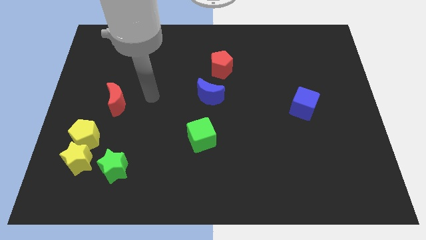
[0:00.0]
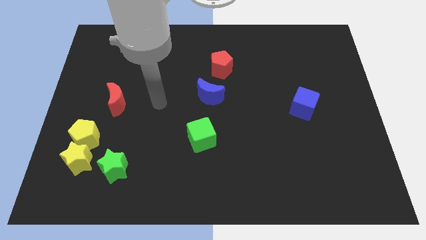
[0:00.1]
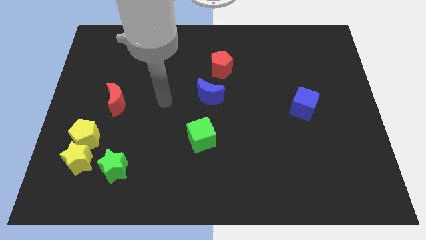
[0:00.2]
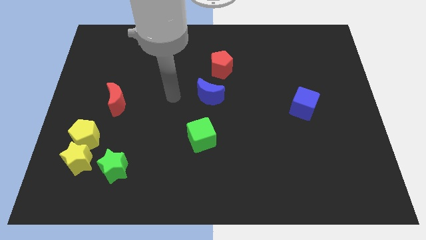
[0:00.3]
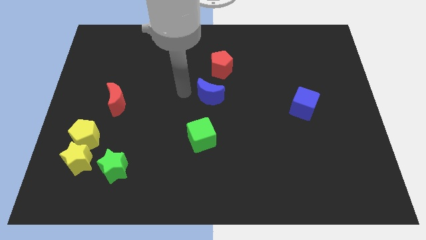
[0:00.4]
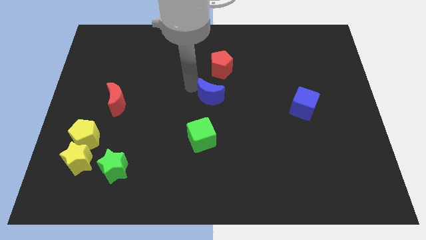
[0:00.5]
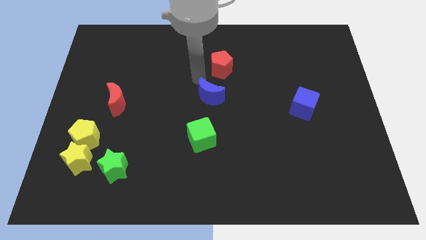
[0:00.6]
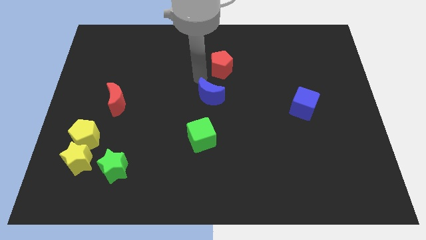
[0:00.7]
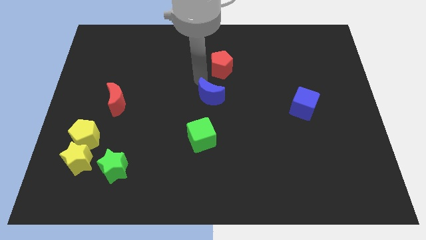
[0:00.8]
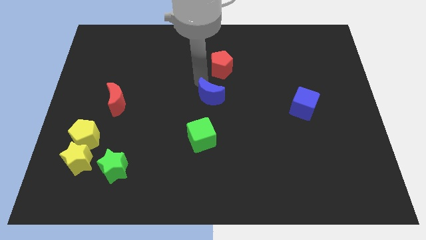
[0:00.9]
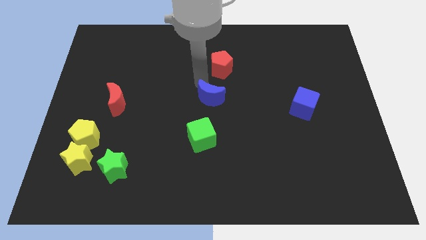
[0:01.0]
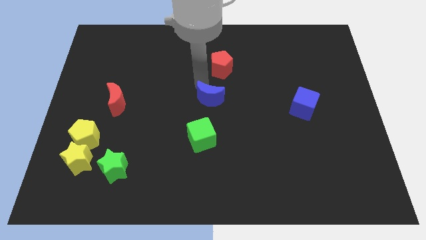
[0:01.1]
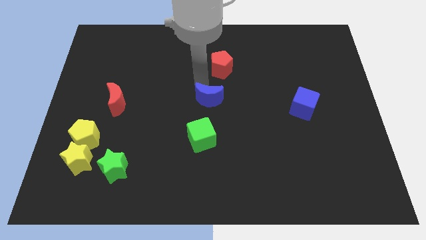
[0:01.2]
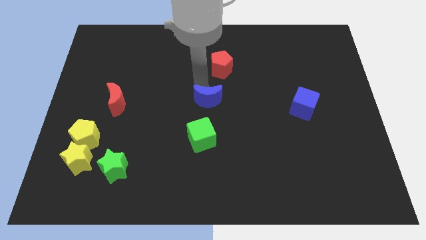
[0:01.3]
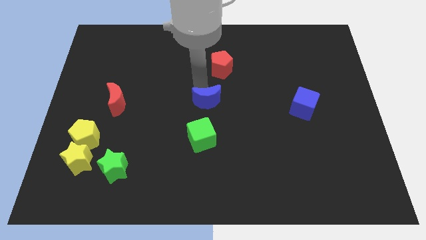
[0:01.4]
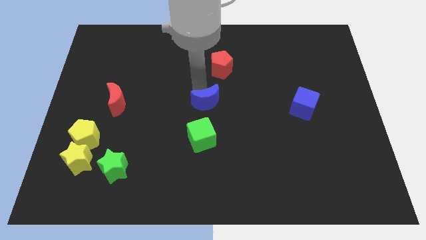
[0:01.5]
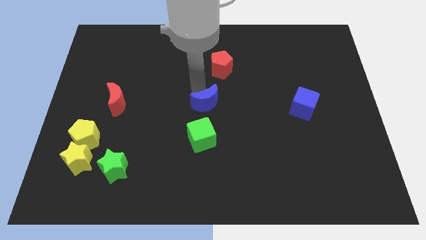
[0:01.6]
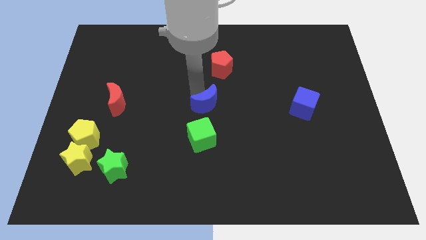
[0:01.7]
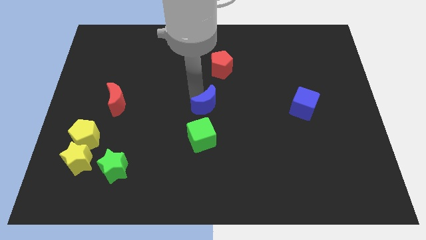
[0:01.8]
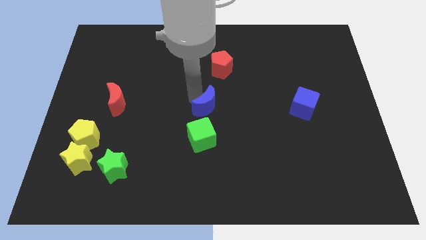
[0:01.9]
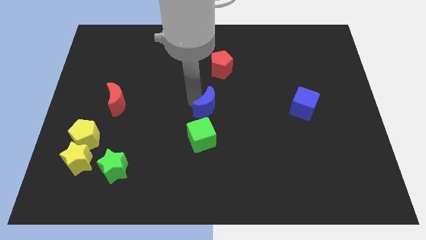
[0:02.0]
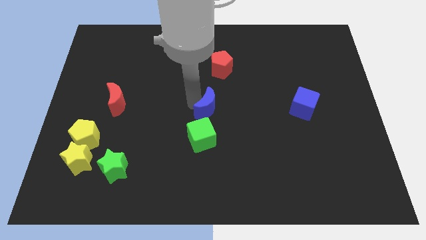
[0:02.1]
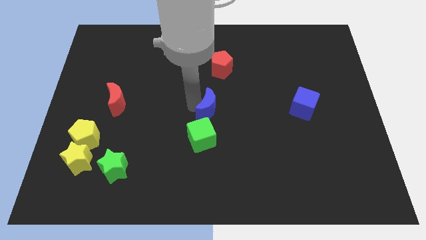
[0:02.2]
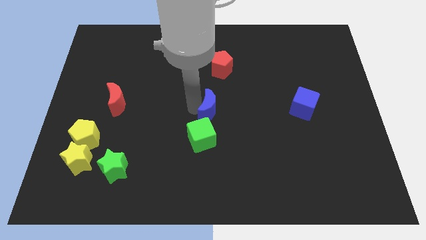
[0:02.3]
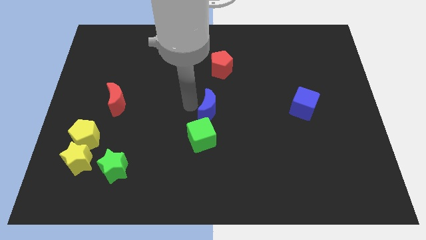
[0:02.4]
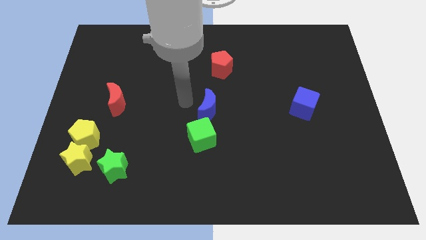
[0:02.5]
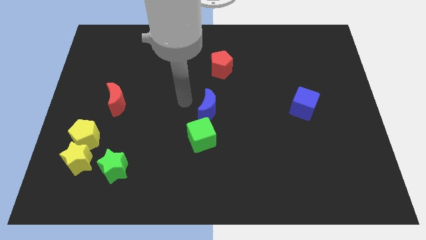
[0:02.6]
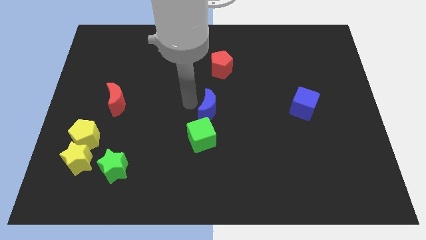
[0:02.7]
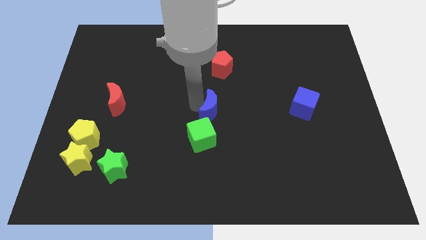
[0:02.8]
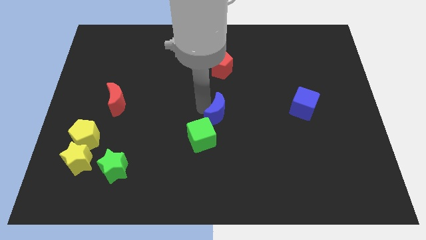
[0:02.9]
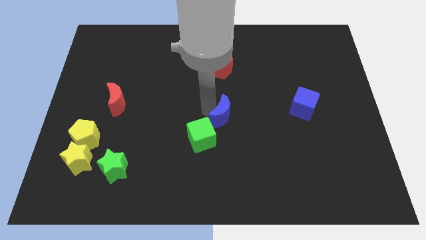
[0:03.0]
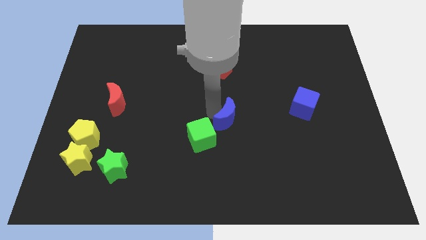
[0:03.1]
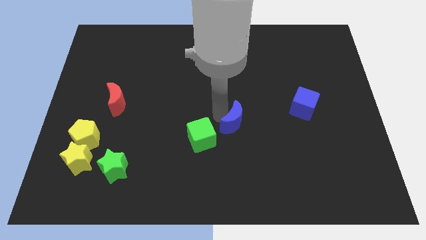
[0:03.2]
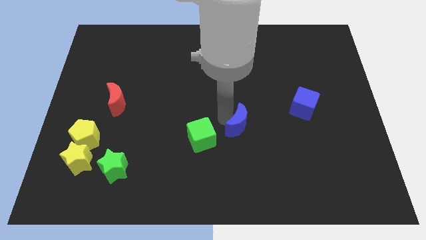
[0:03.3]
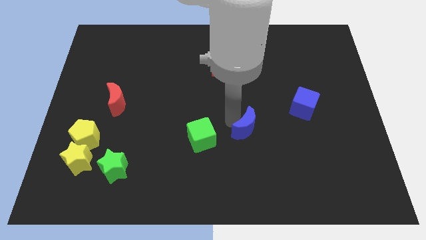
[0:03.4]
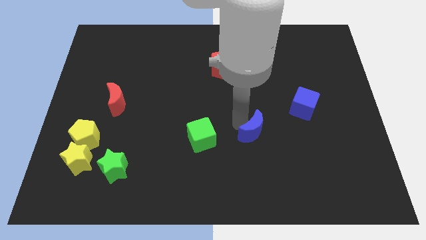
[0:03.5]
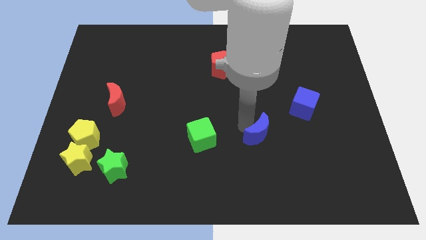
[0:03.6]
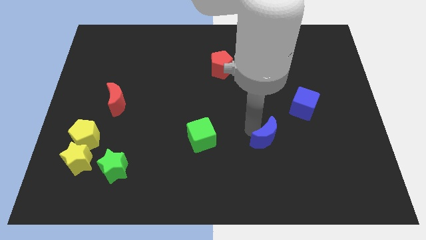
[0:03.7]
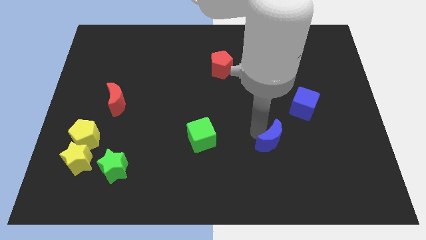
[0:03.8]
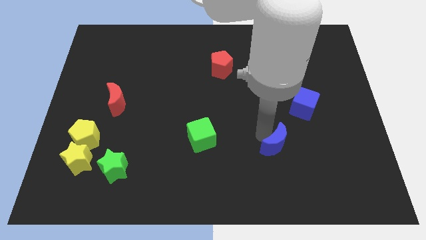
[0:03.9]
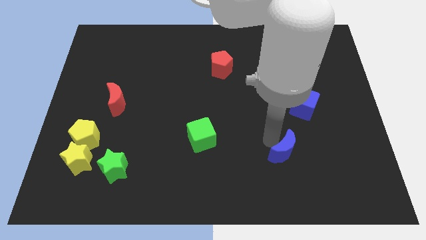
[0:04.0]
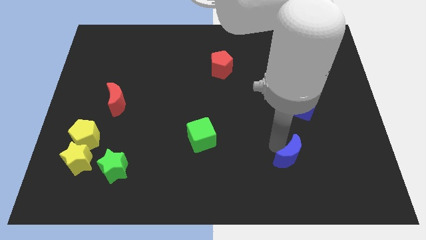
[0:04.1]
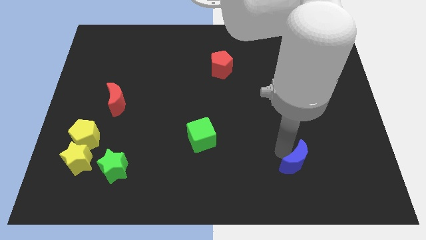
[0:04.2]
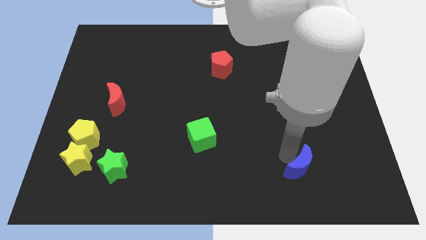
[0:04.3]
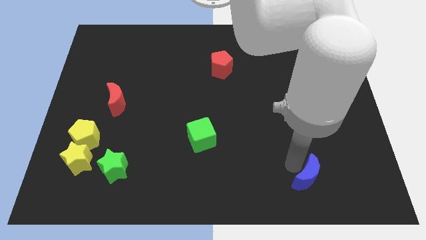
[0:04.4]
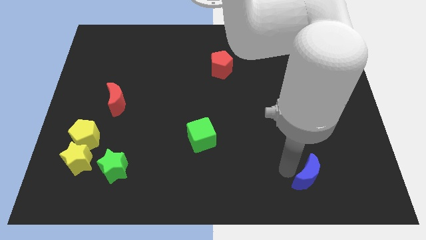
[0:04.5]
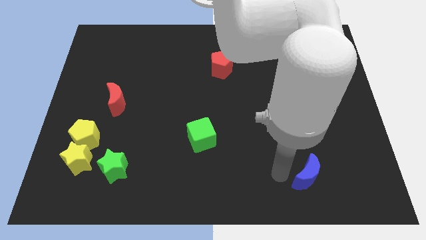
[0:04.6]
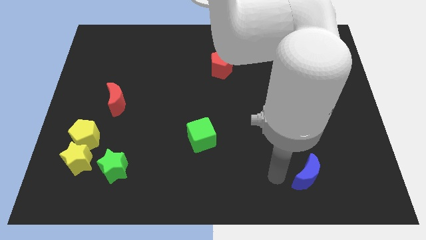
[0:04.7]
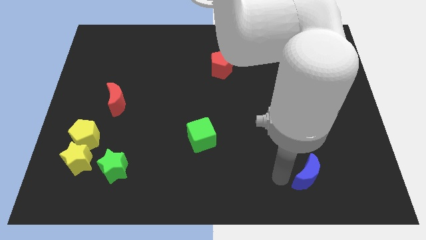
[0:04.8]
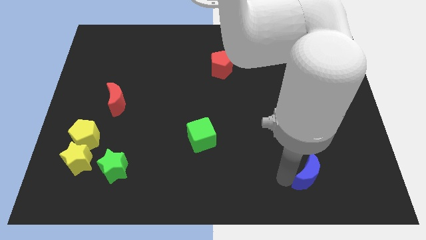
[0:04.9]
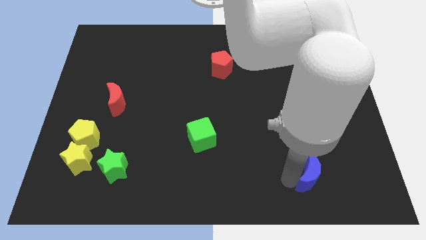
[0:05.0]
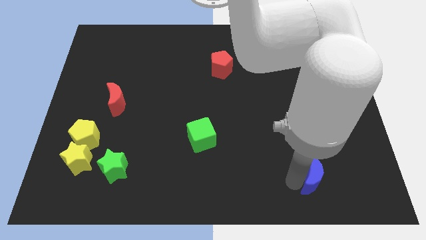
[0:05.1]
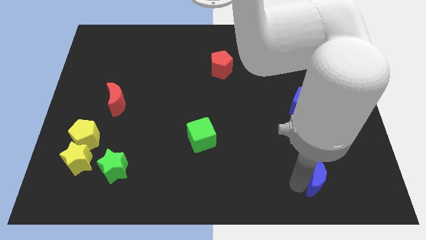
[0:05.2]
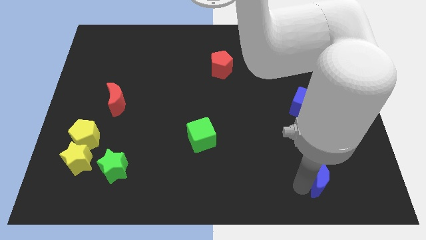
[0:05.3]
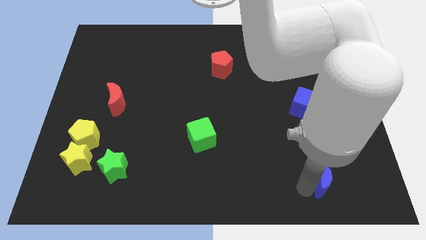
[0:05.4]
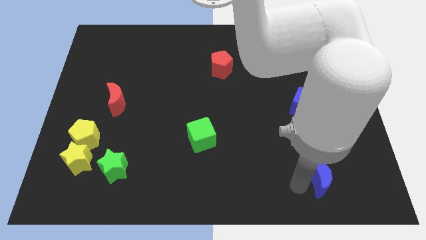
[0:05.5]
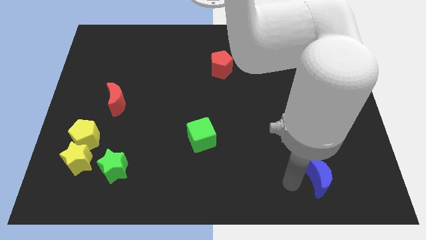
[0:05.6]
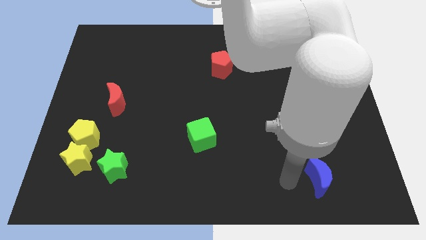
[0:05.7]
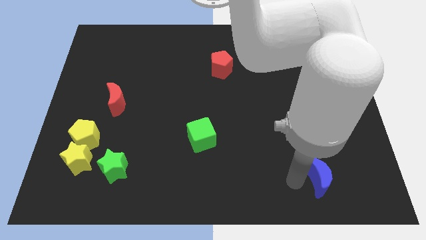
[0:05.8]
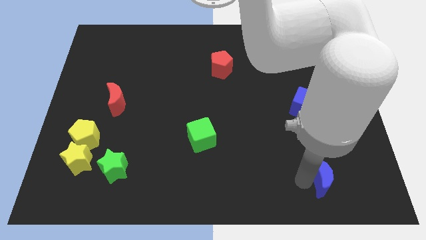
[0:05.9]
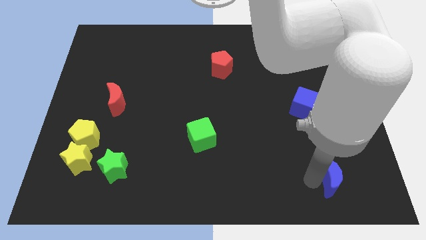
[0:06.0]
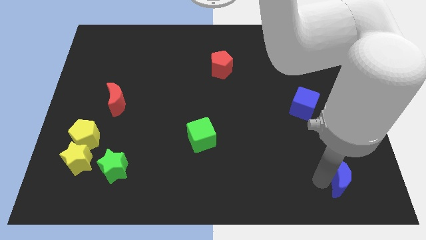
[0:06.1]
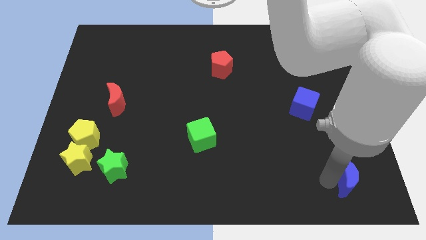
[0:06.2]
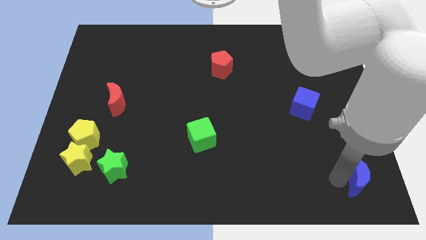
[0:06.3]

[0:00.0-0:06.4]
put the blue moon to the bottom right corner

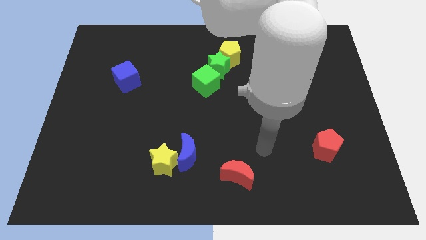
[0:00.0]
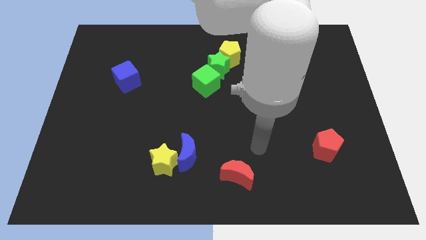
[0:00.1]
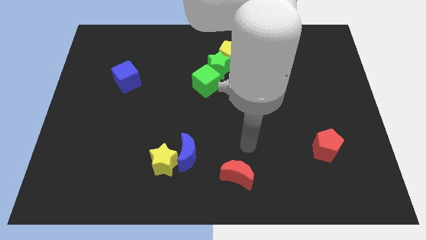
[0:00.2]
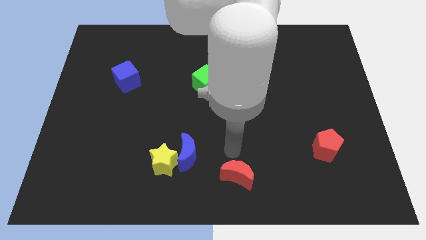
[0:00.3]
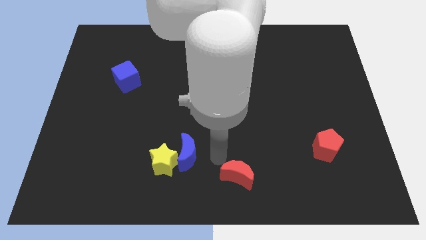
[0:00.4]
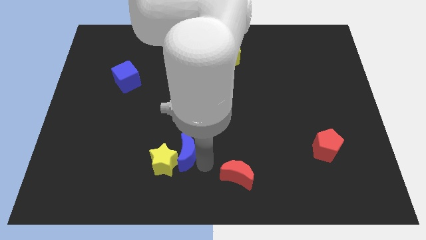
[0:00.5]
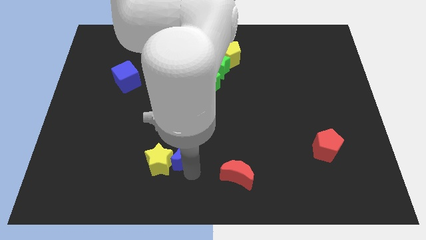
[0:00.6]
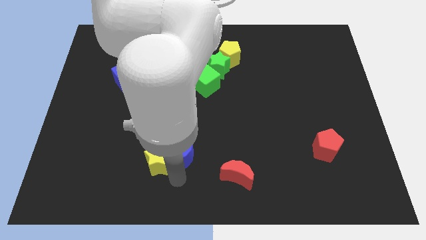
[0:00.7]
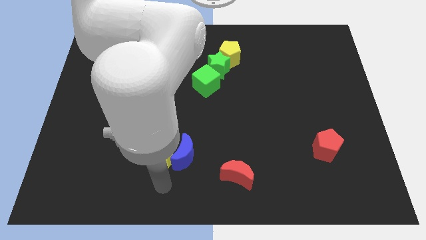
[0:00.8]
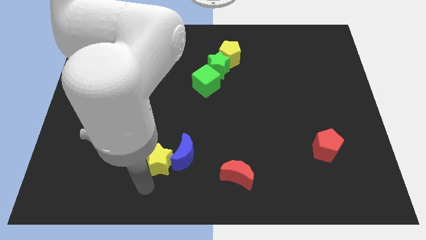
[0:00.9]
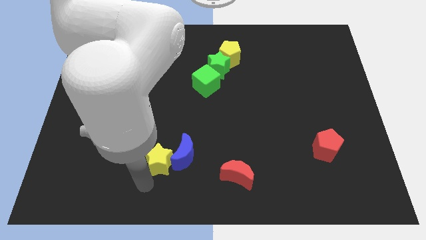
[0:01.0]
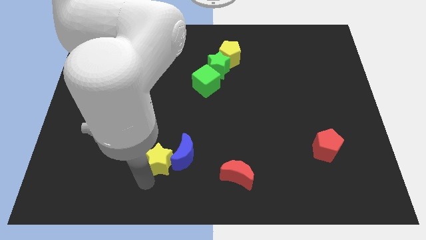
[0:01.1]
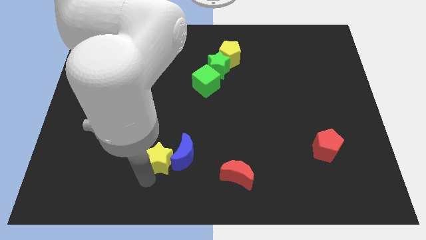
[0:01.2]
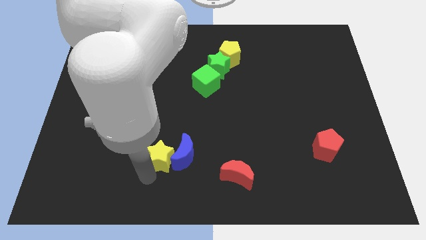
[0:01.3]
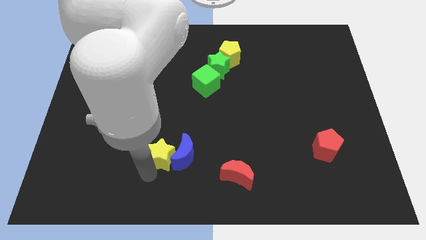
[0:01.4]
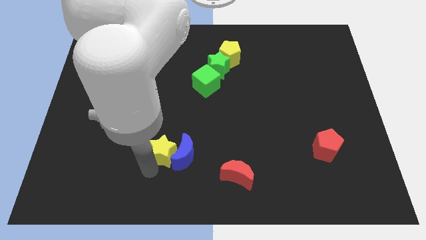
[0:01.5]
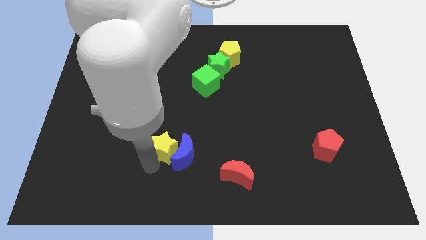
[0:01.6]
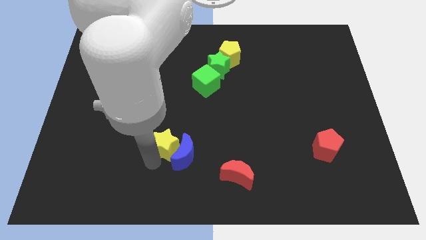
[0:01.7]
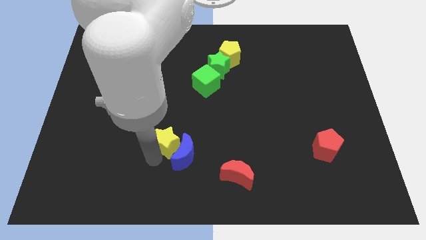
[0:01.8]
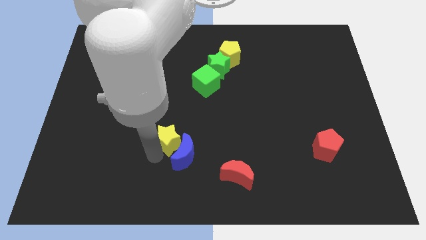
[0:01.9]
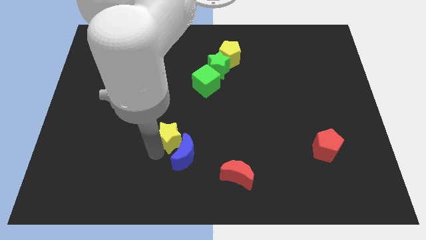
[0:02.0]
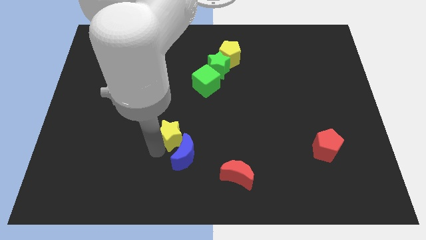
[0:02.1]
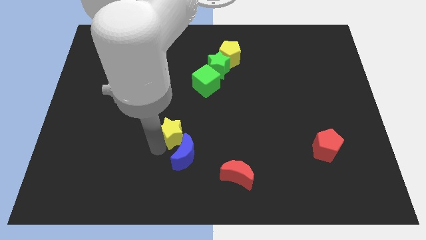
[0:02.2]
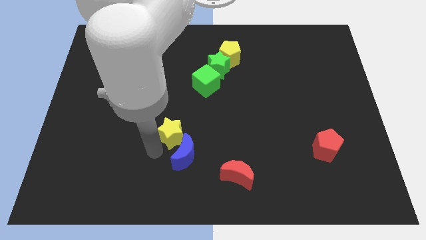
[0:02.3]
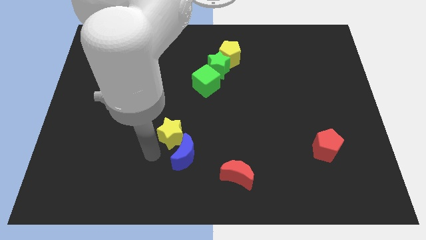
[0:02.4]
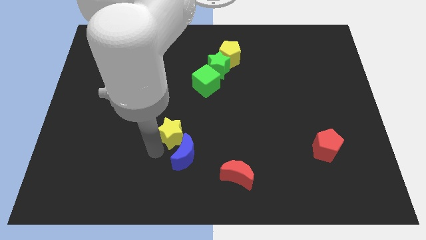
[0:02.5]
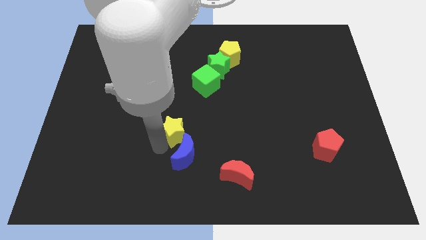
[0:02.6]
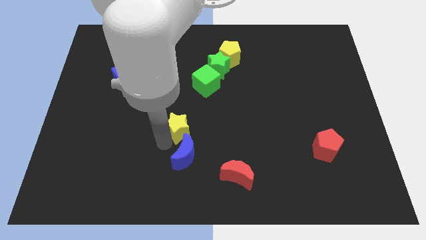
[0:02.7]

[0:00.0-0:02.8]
slide the yellow star to the middle
